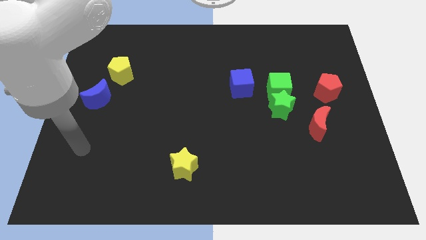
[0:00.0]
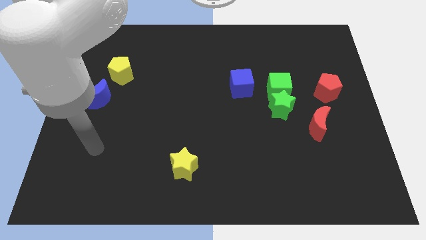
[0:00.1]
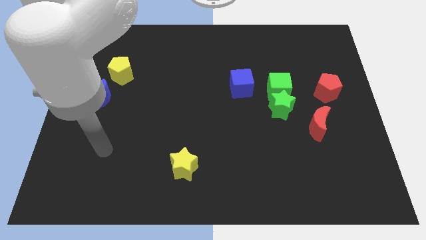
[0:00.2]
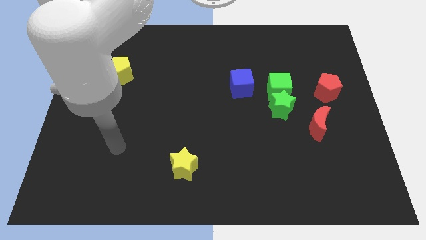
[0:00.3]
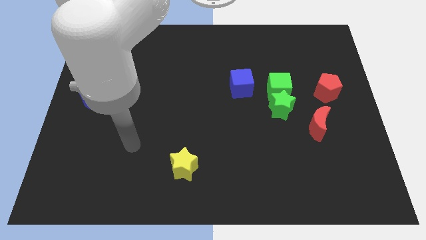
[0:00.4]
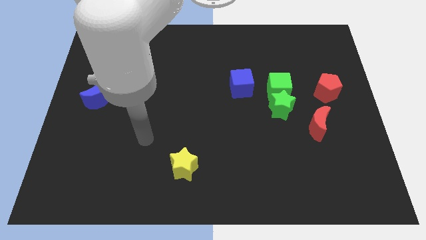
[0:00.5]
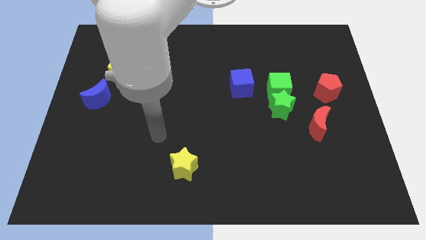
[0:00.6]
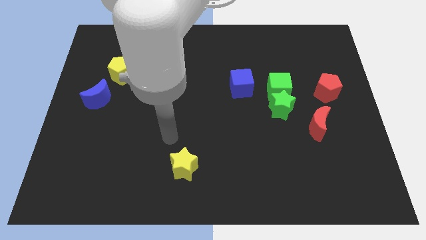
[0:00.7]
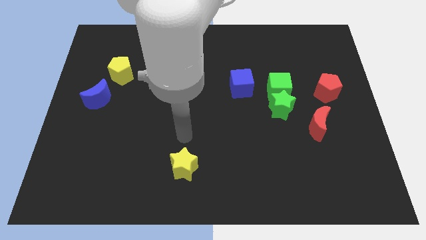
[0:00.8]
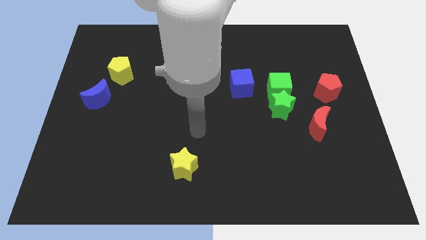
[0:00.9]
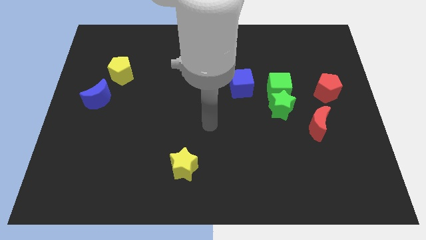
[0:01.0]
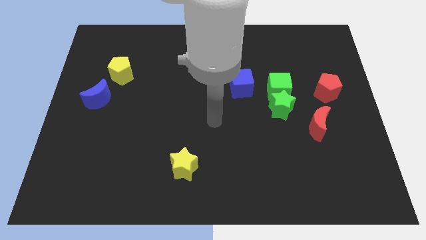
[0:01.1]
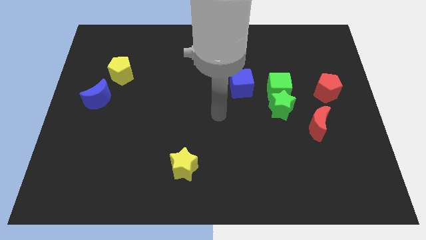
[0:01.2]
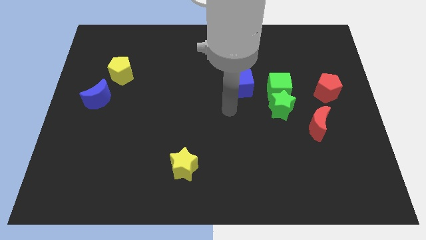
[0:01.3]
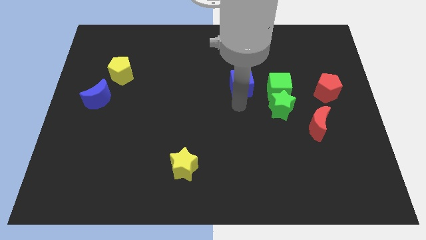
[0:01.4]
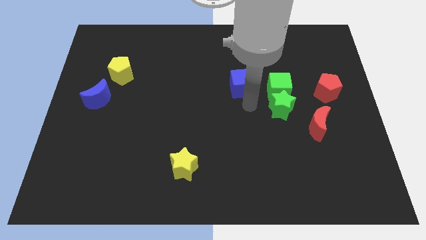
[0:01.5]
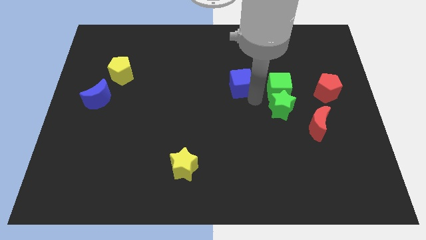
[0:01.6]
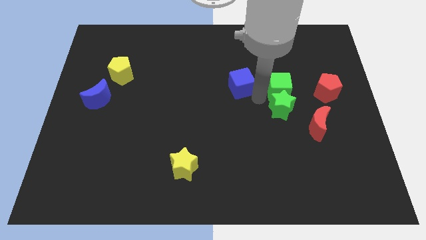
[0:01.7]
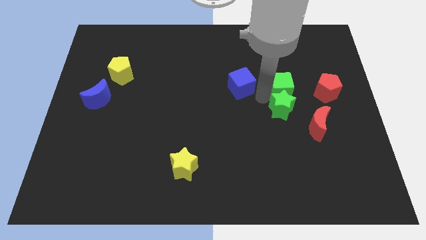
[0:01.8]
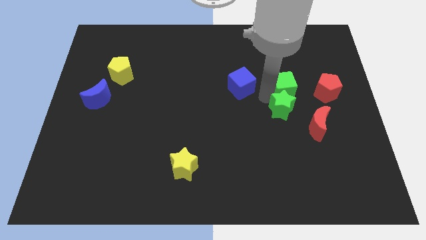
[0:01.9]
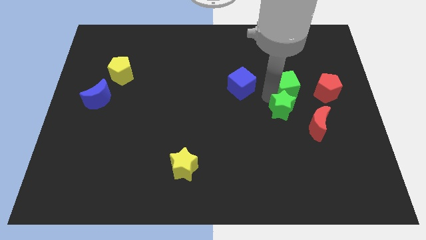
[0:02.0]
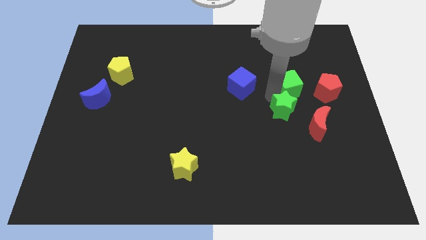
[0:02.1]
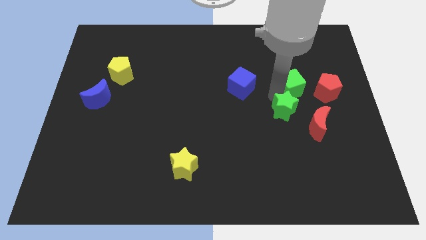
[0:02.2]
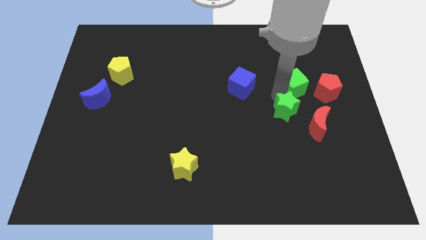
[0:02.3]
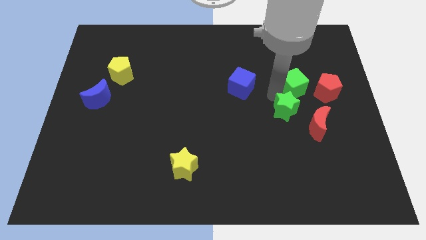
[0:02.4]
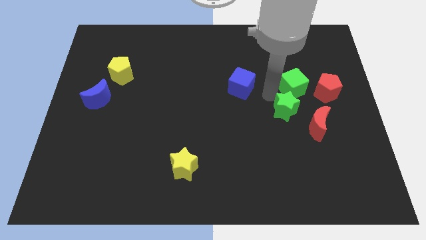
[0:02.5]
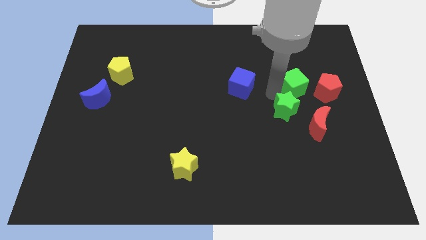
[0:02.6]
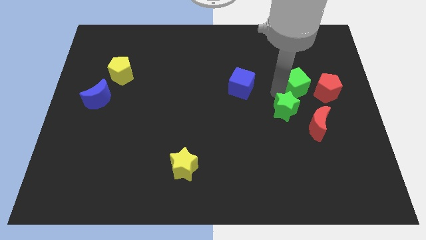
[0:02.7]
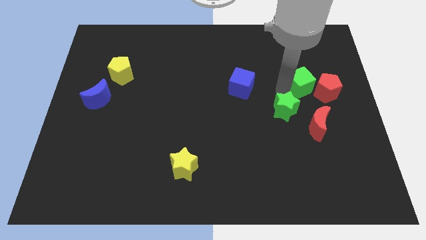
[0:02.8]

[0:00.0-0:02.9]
move the green cube away from the green star and blue cube

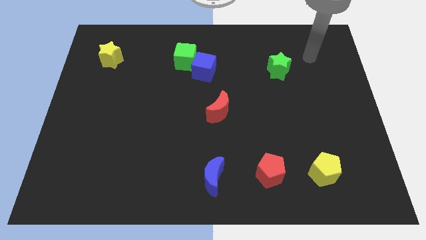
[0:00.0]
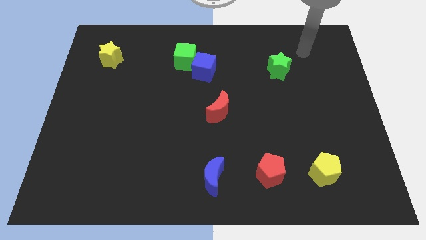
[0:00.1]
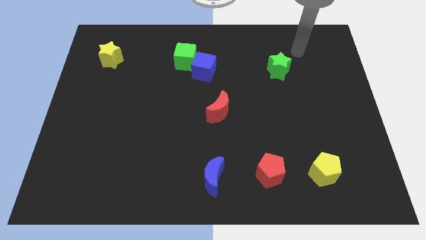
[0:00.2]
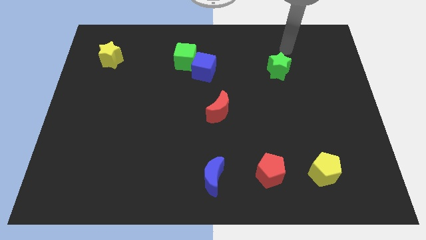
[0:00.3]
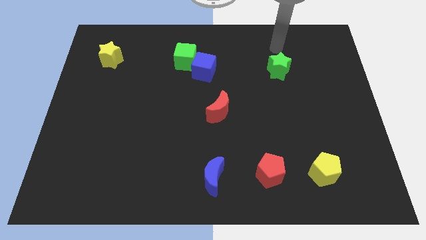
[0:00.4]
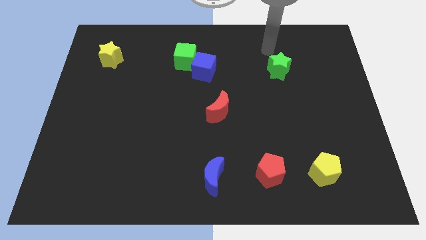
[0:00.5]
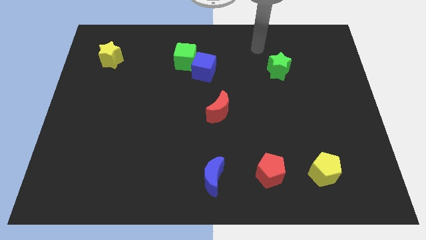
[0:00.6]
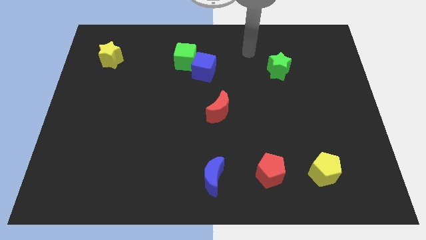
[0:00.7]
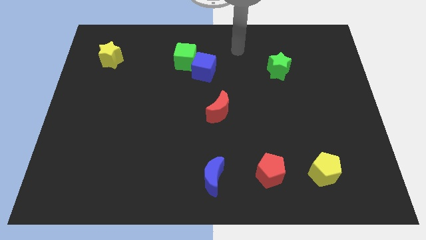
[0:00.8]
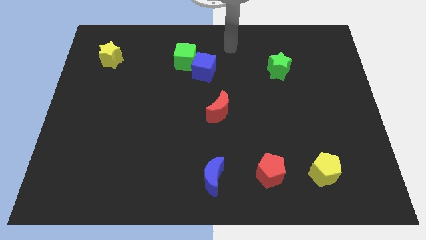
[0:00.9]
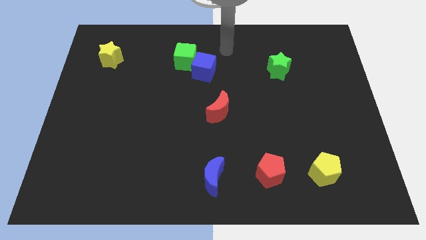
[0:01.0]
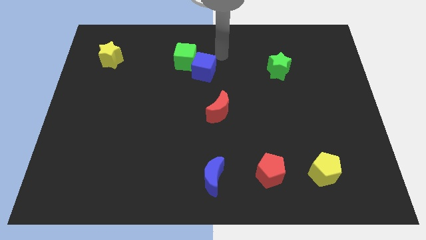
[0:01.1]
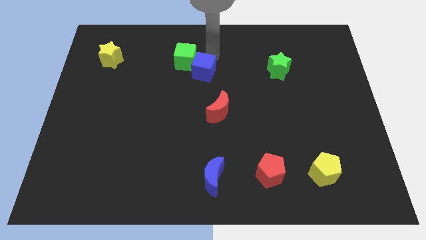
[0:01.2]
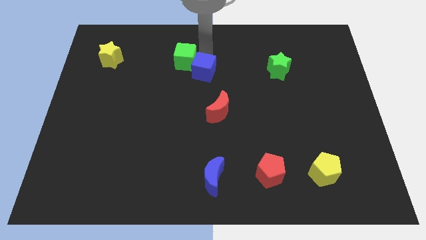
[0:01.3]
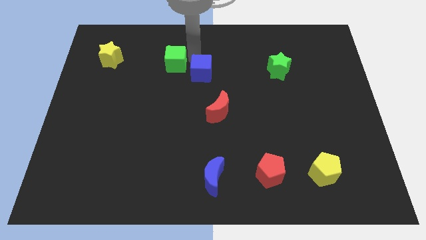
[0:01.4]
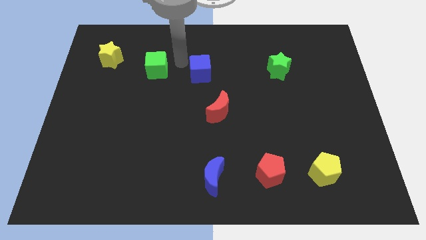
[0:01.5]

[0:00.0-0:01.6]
separate the blue cube from the green cube

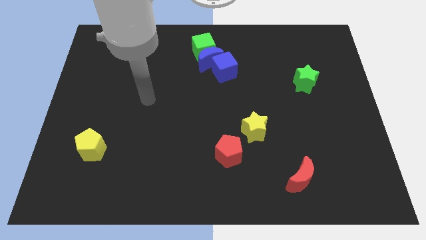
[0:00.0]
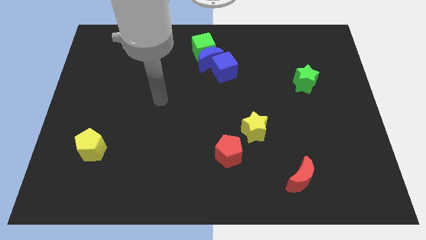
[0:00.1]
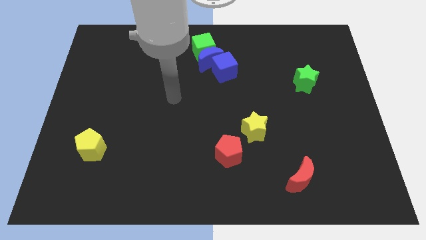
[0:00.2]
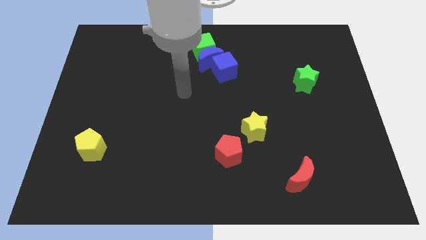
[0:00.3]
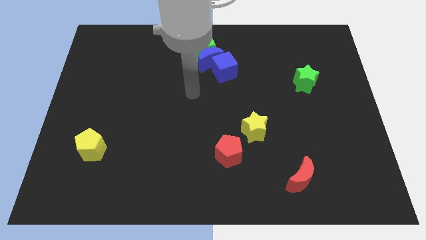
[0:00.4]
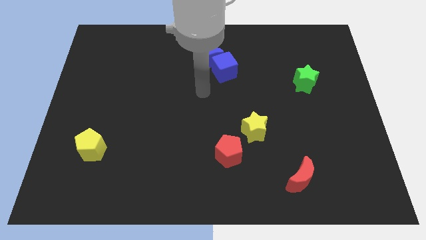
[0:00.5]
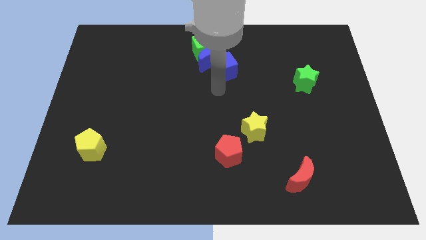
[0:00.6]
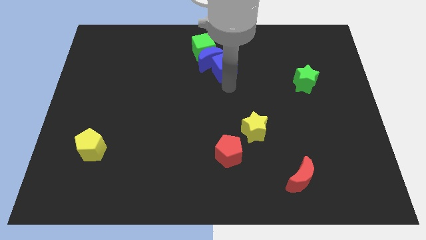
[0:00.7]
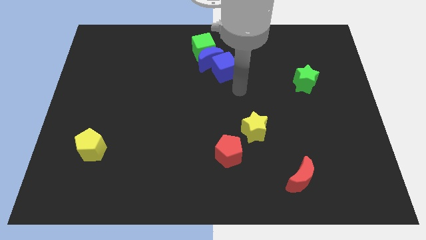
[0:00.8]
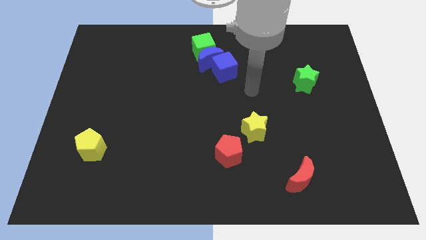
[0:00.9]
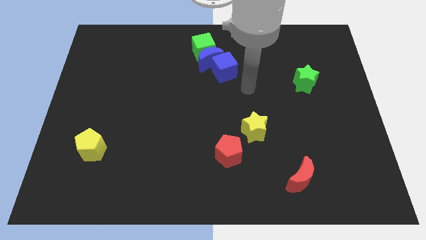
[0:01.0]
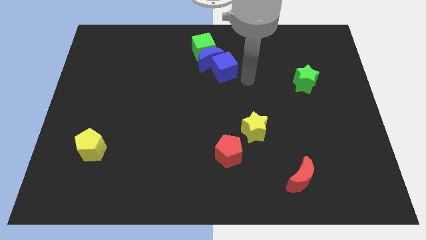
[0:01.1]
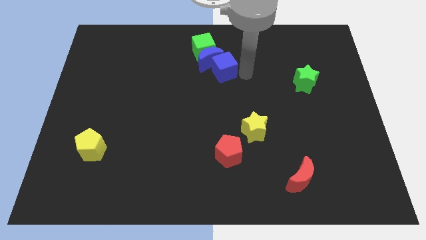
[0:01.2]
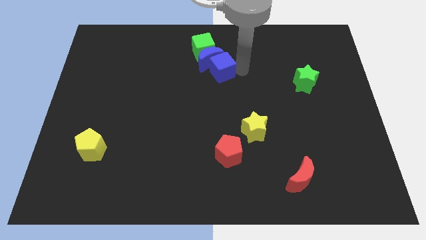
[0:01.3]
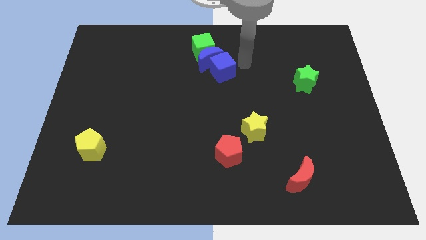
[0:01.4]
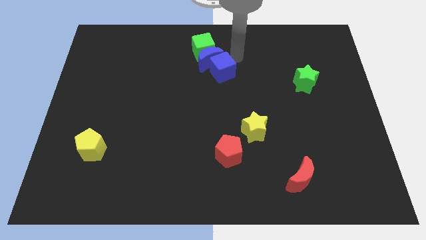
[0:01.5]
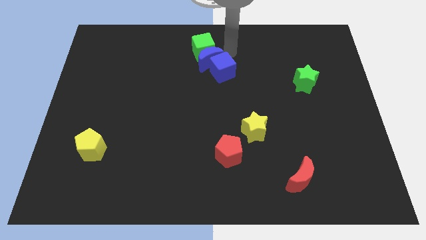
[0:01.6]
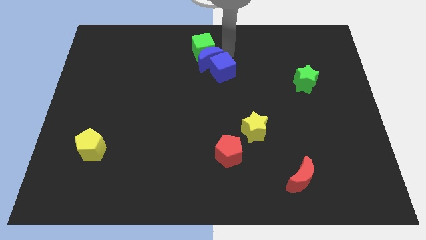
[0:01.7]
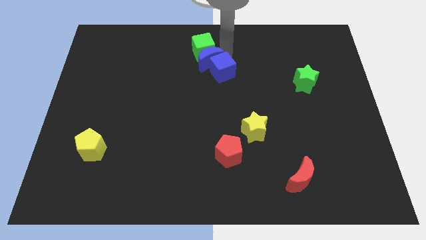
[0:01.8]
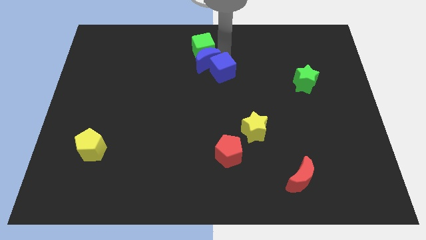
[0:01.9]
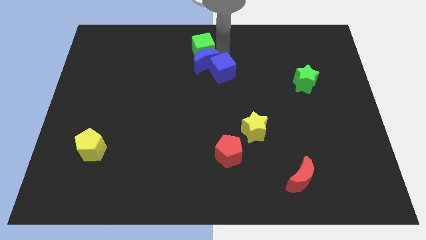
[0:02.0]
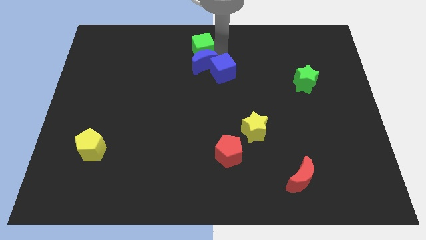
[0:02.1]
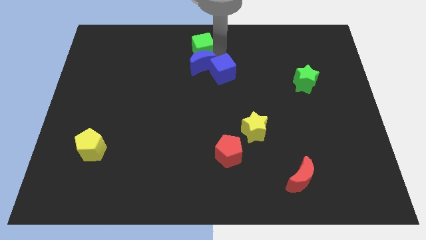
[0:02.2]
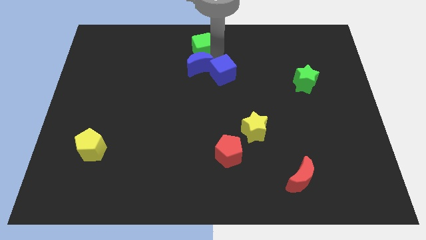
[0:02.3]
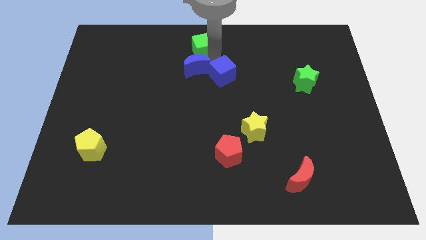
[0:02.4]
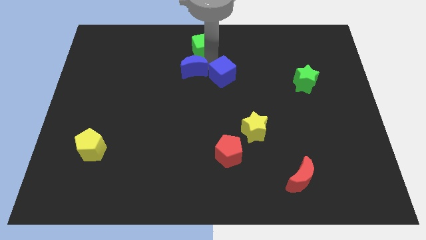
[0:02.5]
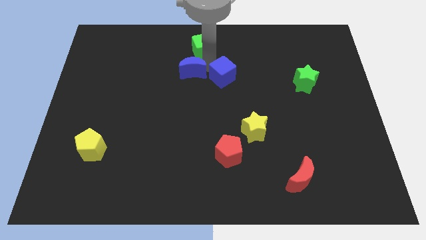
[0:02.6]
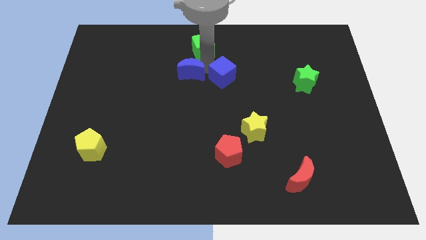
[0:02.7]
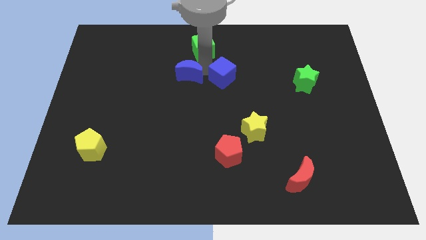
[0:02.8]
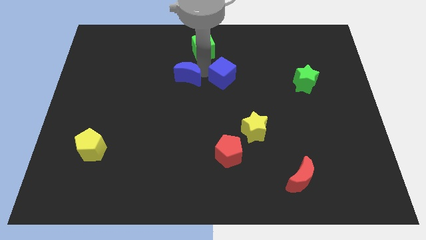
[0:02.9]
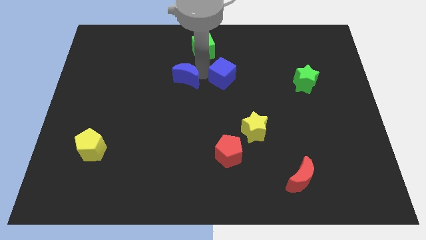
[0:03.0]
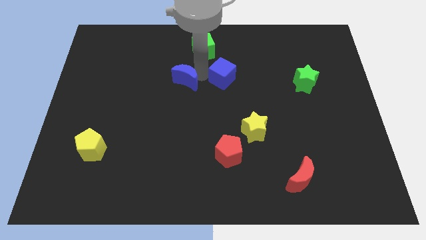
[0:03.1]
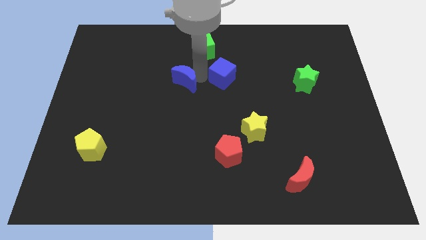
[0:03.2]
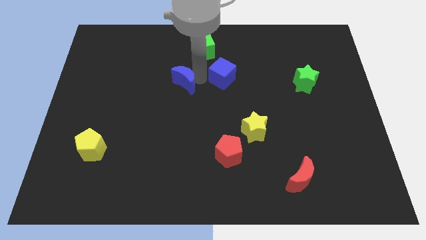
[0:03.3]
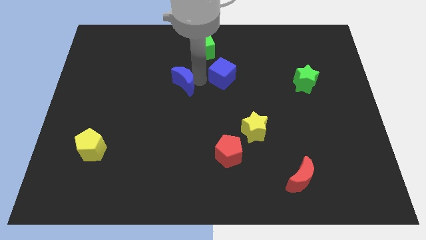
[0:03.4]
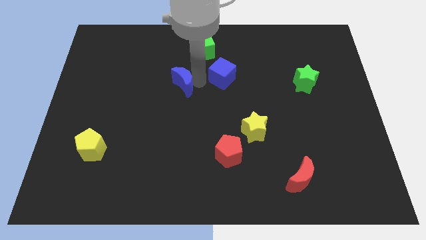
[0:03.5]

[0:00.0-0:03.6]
pull the blue moon apart from the green cube and blue cube

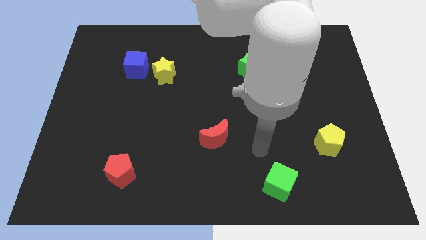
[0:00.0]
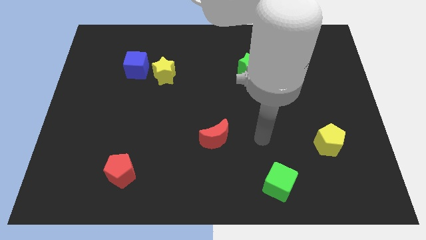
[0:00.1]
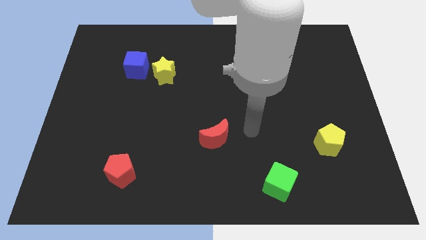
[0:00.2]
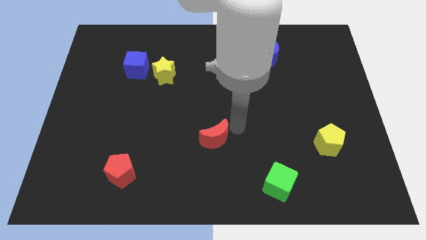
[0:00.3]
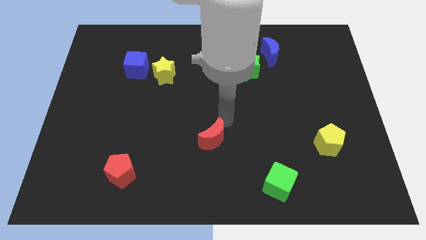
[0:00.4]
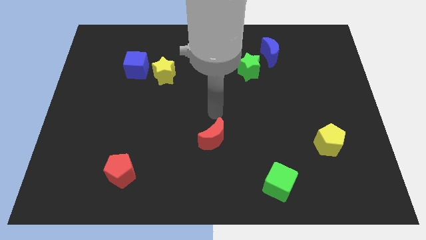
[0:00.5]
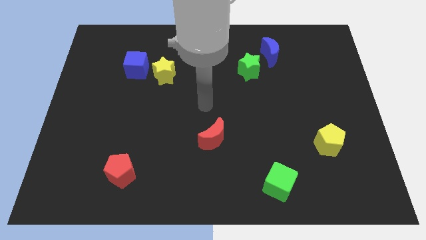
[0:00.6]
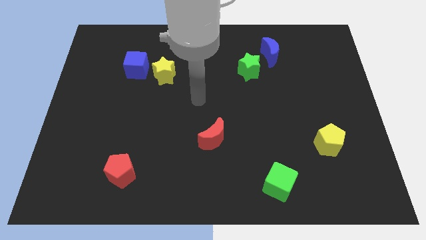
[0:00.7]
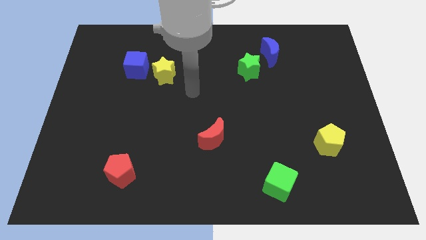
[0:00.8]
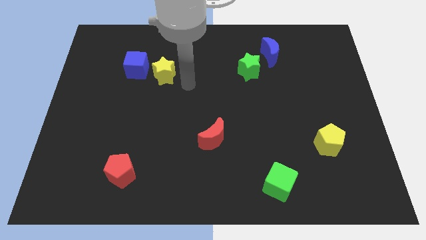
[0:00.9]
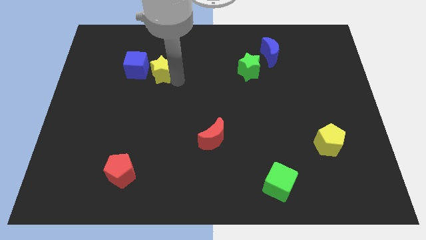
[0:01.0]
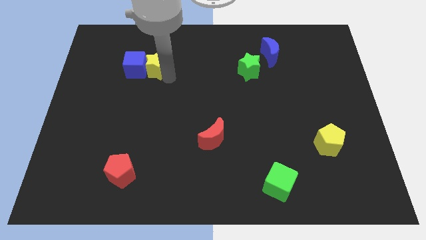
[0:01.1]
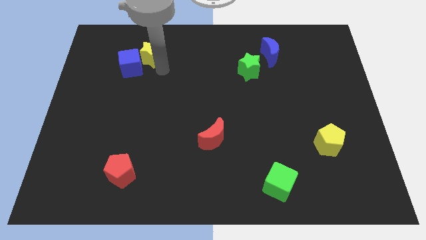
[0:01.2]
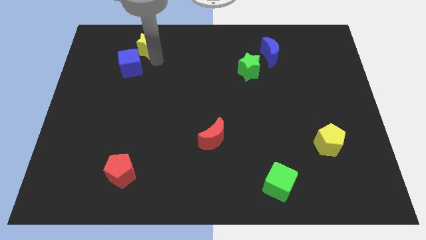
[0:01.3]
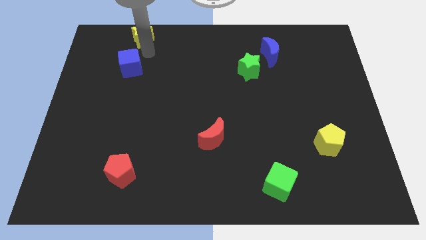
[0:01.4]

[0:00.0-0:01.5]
pull the blue cube apart from the yellow star
